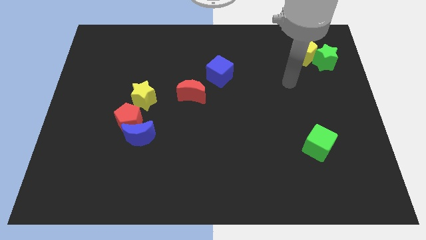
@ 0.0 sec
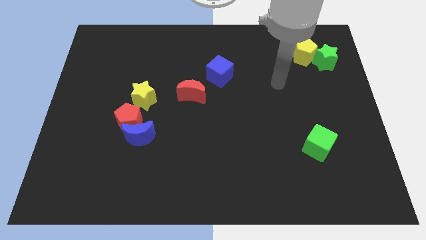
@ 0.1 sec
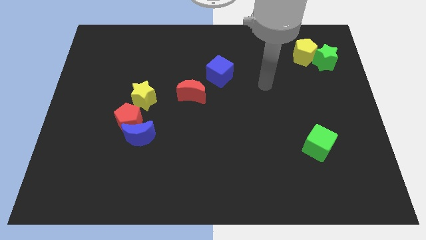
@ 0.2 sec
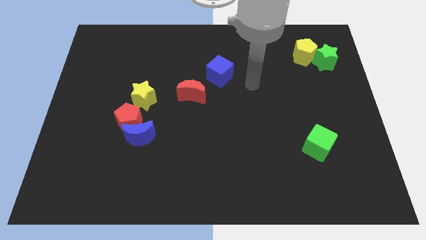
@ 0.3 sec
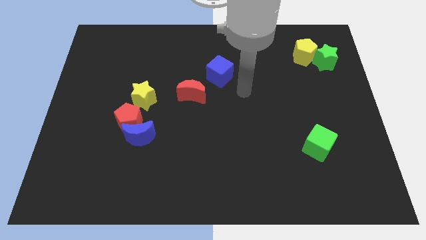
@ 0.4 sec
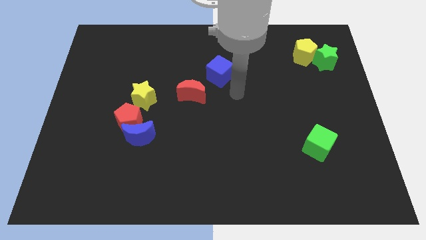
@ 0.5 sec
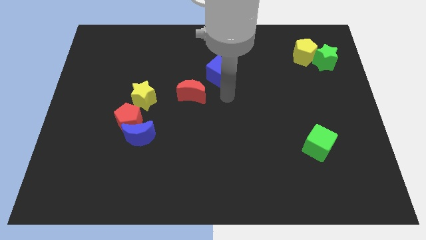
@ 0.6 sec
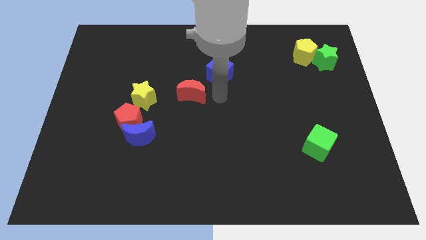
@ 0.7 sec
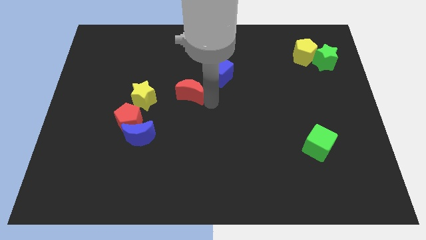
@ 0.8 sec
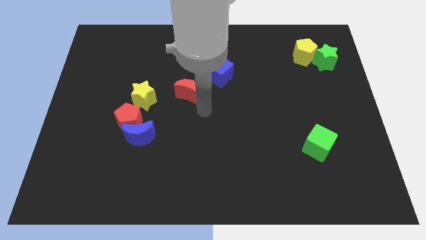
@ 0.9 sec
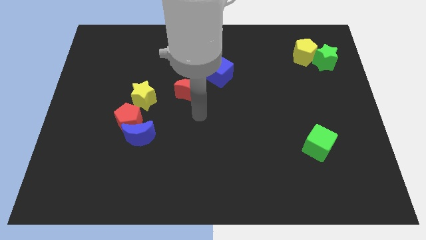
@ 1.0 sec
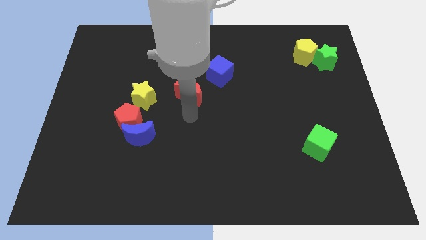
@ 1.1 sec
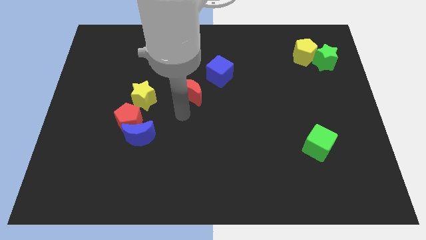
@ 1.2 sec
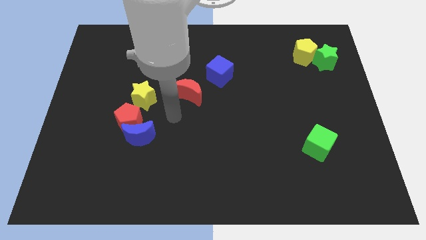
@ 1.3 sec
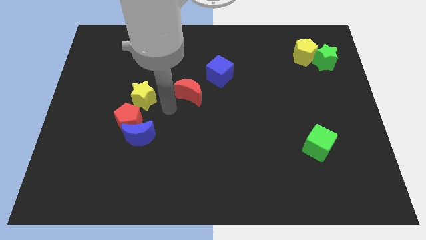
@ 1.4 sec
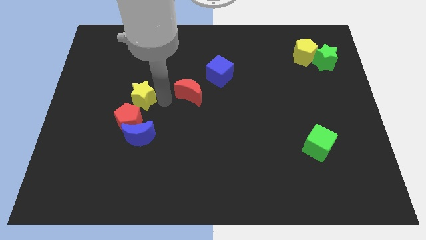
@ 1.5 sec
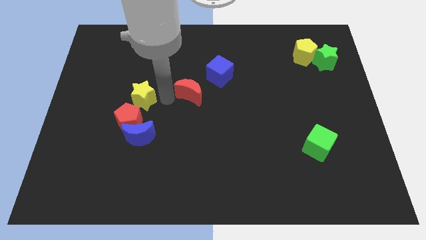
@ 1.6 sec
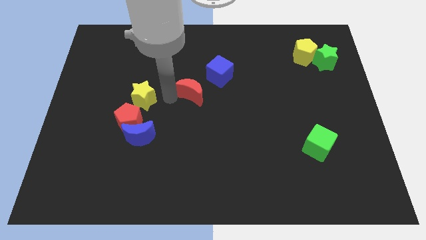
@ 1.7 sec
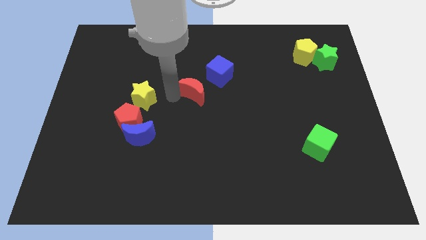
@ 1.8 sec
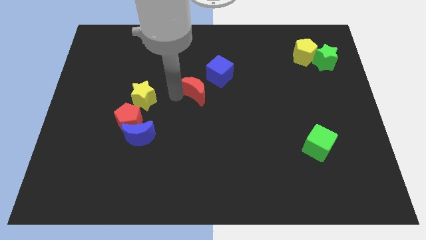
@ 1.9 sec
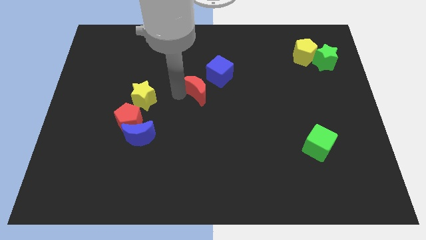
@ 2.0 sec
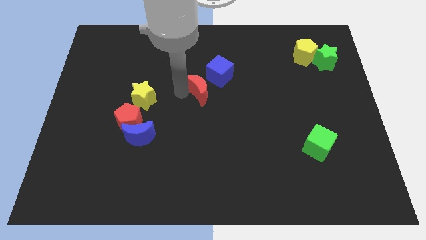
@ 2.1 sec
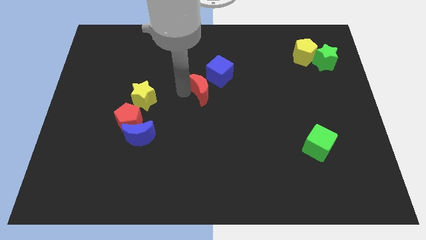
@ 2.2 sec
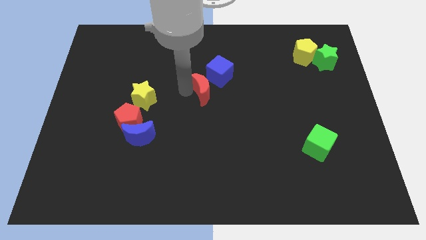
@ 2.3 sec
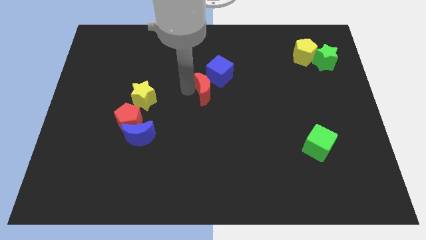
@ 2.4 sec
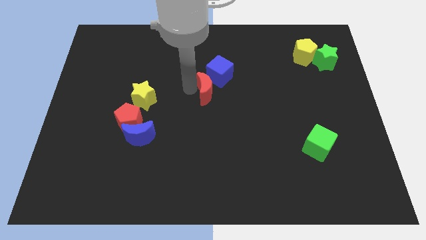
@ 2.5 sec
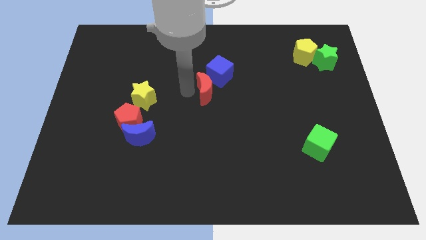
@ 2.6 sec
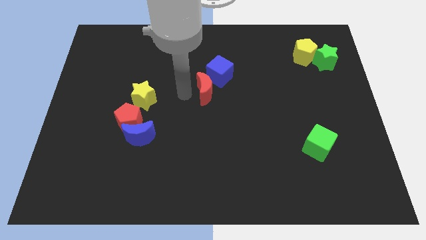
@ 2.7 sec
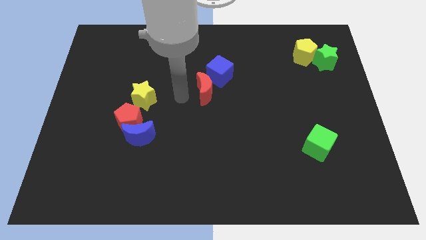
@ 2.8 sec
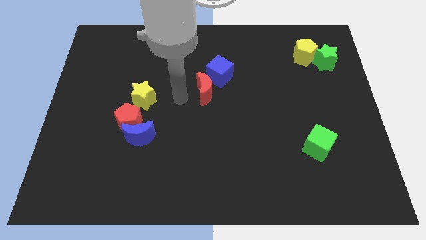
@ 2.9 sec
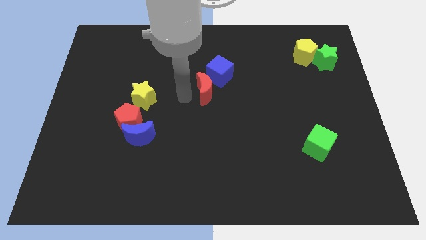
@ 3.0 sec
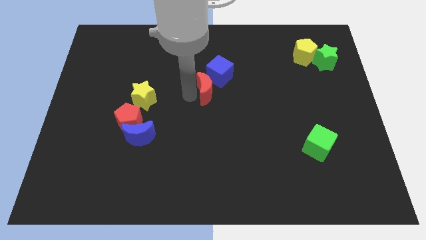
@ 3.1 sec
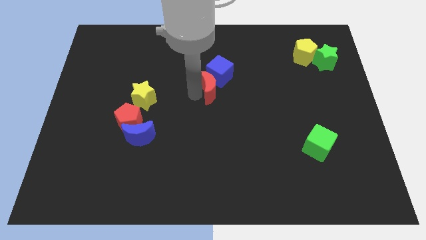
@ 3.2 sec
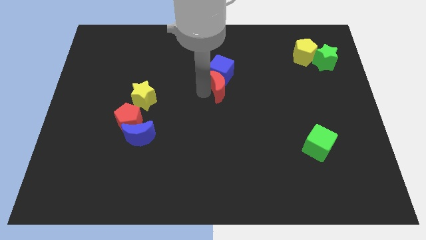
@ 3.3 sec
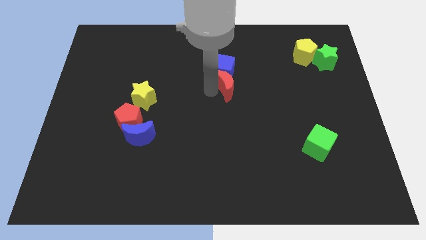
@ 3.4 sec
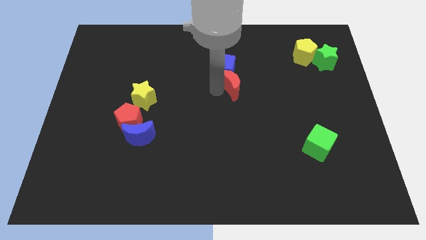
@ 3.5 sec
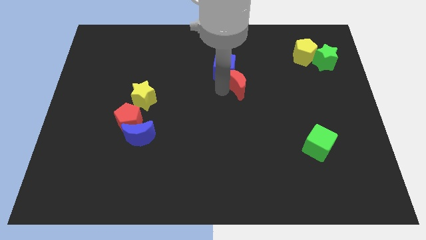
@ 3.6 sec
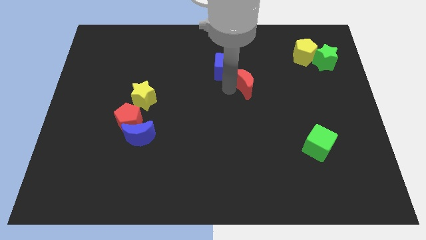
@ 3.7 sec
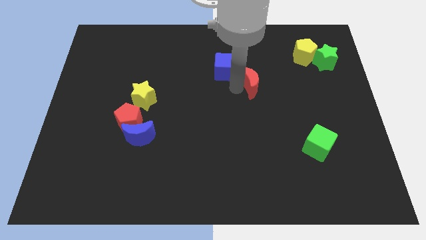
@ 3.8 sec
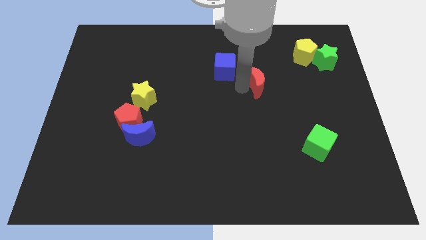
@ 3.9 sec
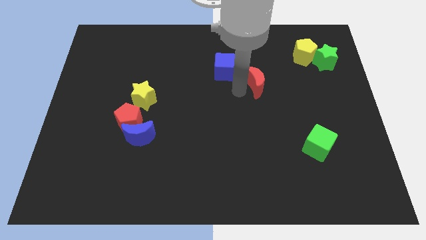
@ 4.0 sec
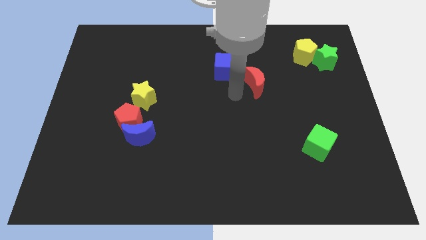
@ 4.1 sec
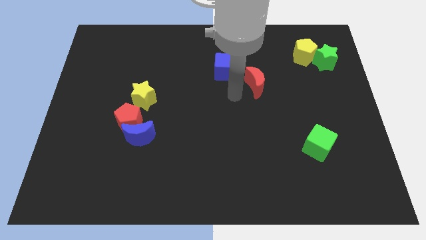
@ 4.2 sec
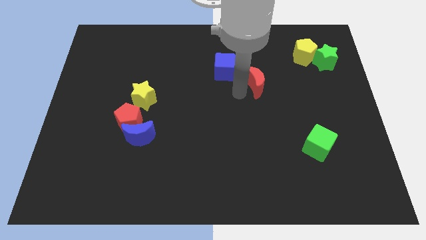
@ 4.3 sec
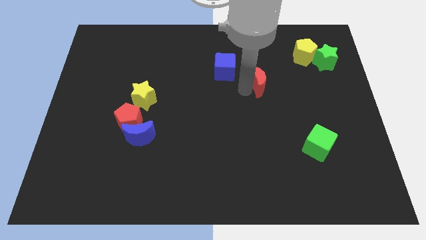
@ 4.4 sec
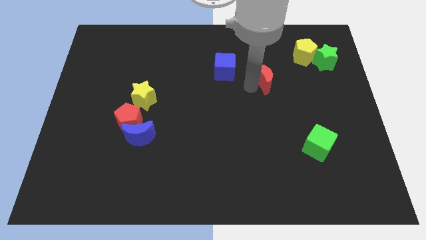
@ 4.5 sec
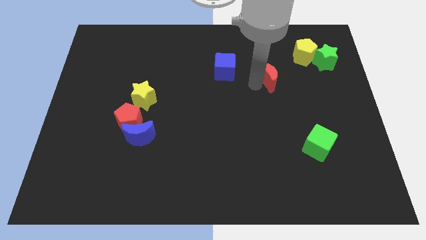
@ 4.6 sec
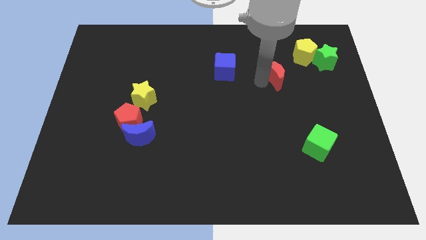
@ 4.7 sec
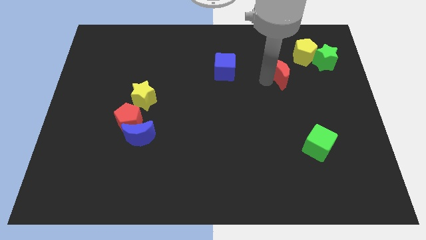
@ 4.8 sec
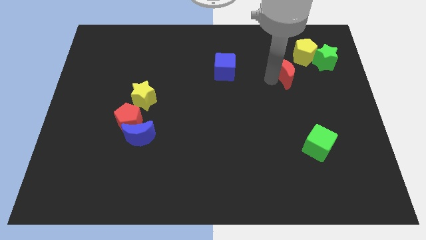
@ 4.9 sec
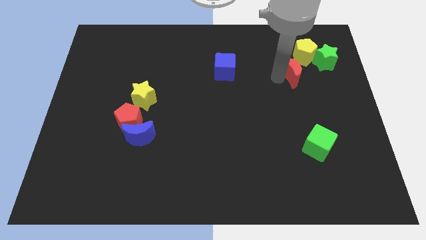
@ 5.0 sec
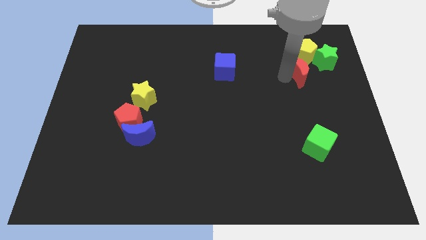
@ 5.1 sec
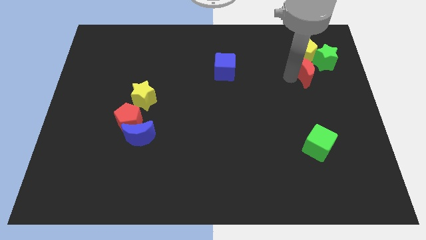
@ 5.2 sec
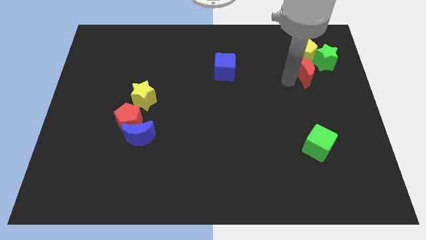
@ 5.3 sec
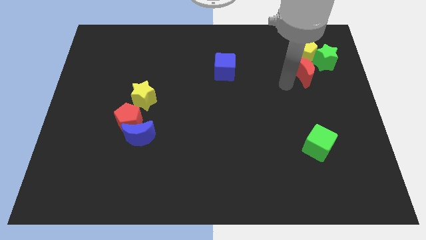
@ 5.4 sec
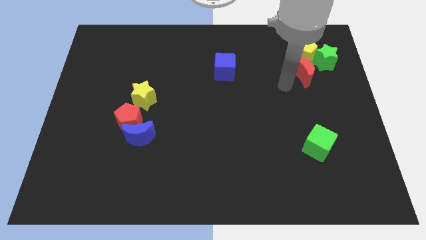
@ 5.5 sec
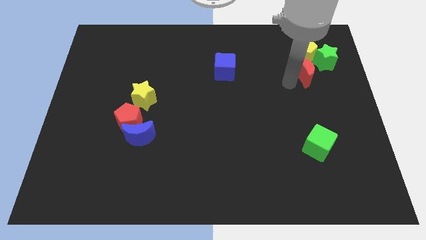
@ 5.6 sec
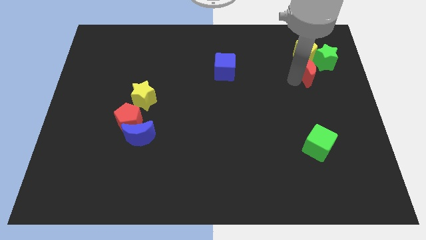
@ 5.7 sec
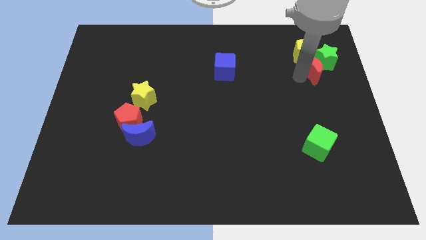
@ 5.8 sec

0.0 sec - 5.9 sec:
move the red moon close to the green star

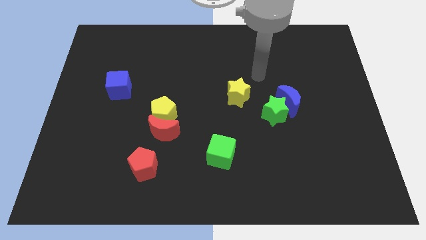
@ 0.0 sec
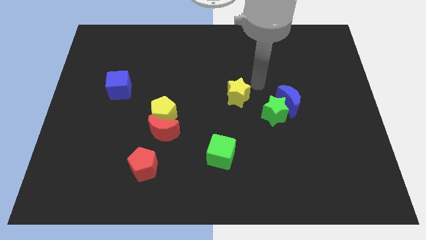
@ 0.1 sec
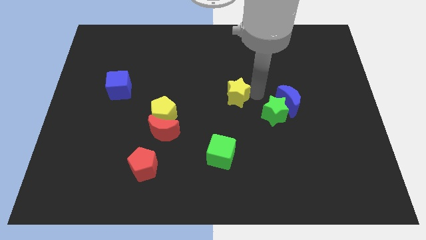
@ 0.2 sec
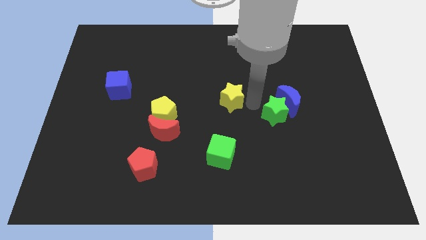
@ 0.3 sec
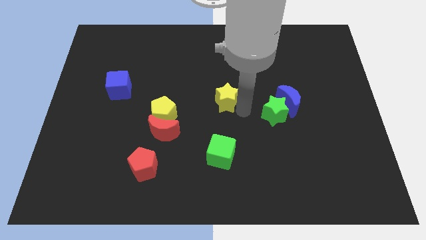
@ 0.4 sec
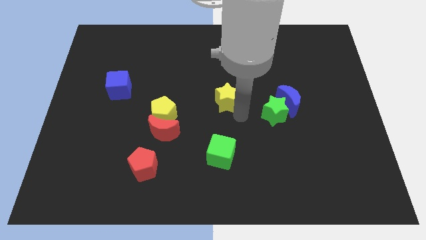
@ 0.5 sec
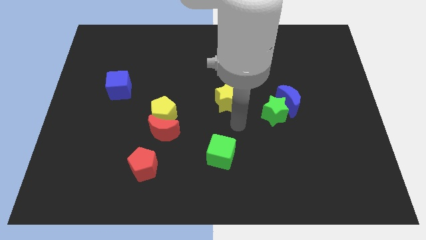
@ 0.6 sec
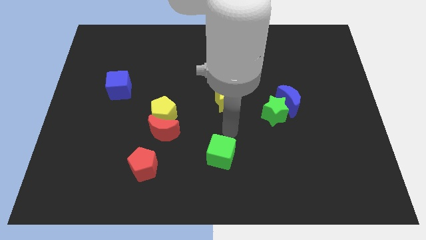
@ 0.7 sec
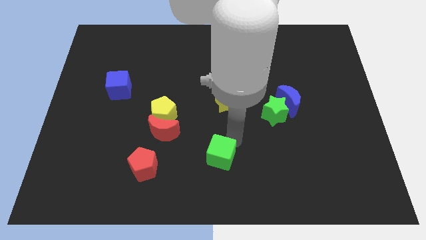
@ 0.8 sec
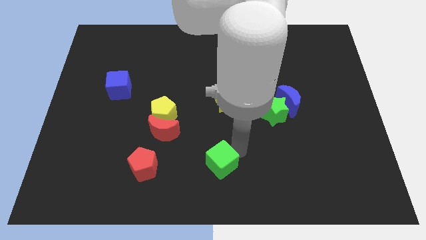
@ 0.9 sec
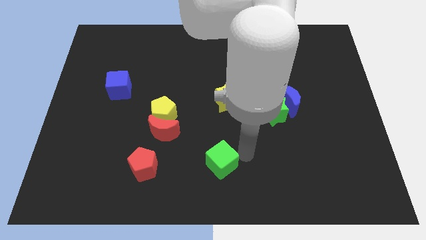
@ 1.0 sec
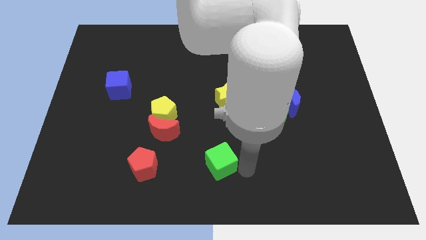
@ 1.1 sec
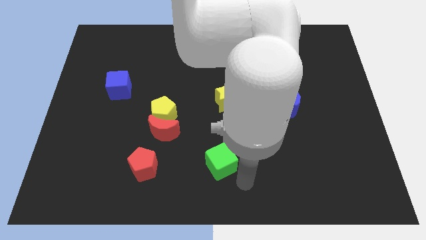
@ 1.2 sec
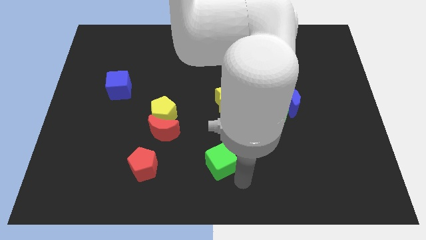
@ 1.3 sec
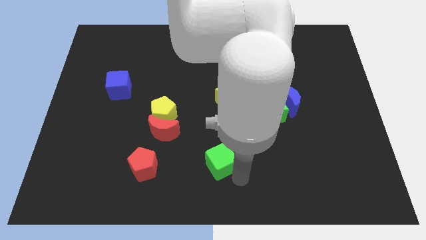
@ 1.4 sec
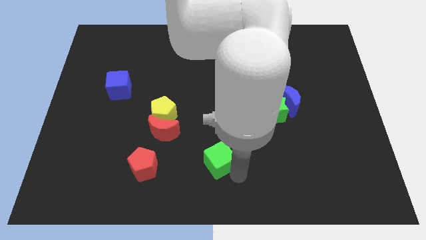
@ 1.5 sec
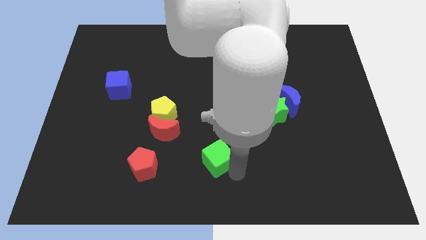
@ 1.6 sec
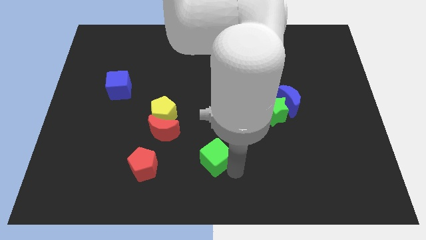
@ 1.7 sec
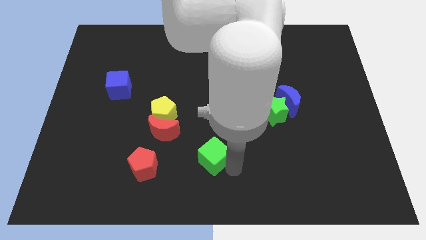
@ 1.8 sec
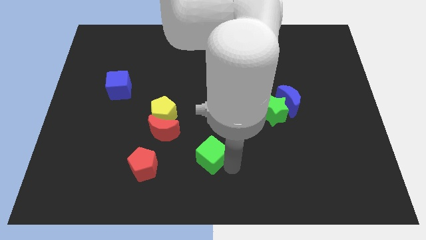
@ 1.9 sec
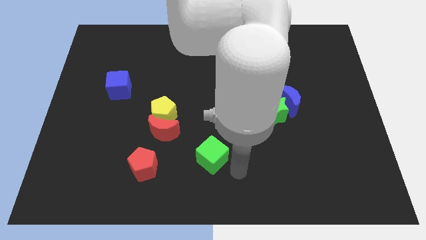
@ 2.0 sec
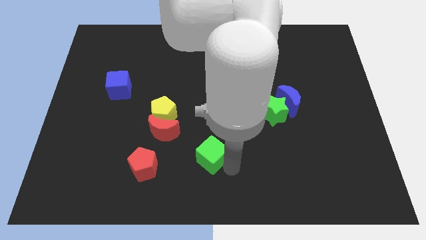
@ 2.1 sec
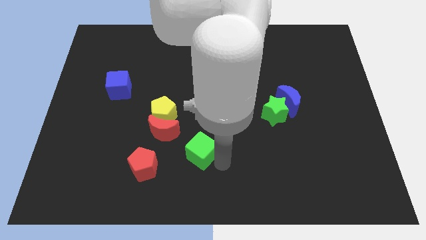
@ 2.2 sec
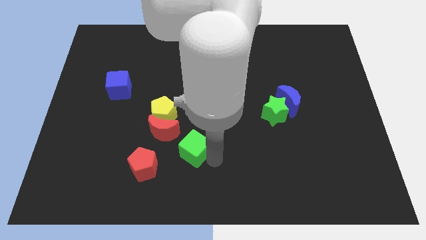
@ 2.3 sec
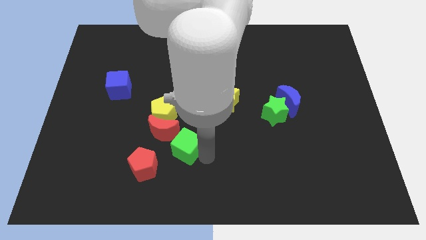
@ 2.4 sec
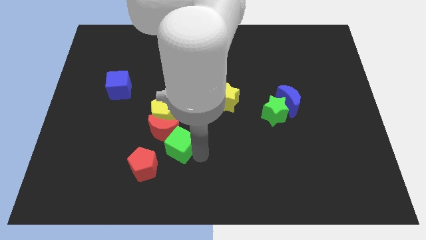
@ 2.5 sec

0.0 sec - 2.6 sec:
put the green cube to the red moon
